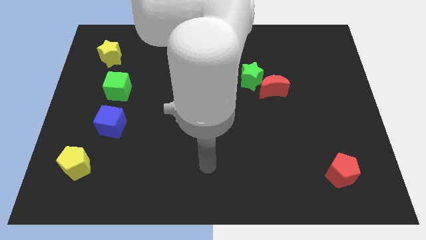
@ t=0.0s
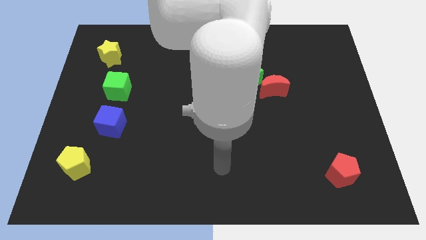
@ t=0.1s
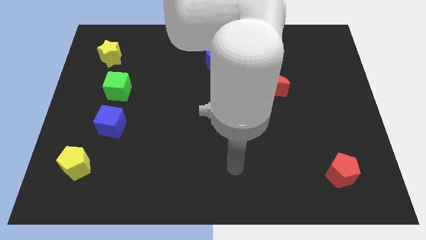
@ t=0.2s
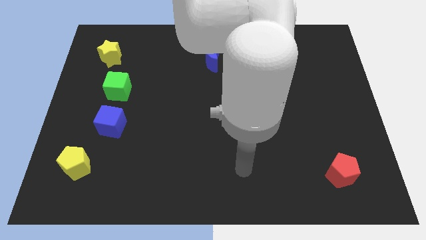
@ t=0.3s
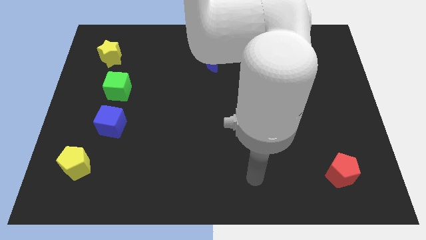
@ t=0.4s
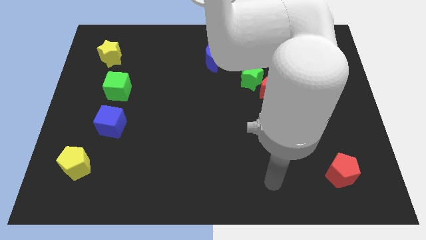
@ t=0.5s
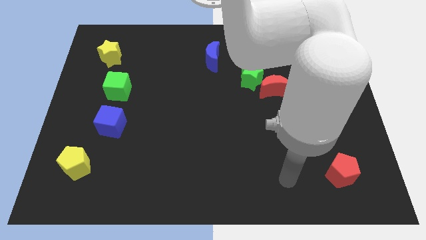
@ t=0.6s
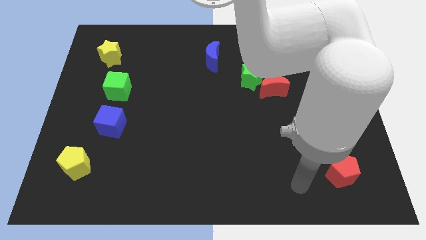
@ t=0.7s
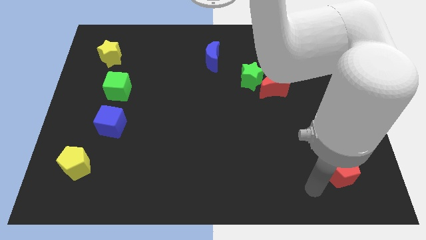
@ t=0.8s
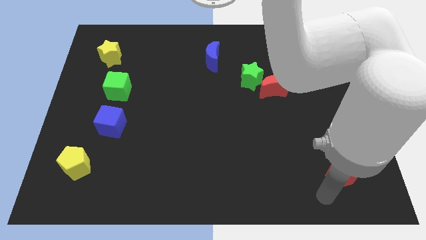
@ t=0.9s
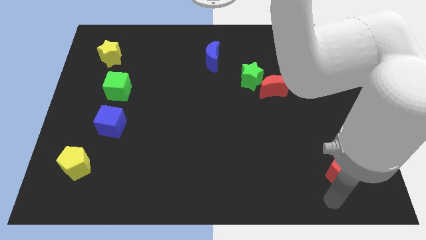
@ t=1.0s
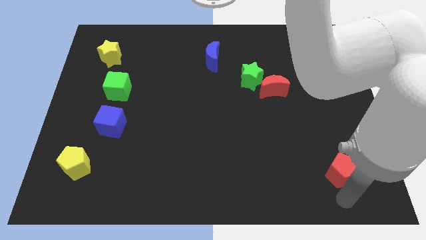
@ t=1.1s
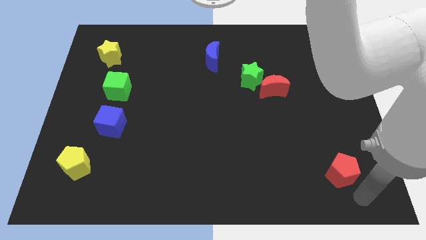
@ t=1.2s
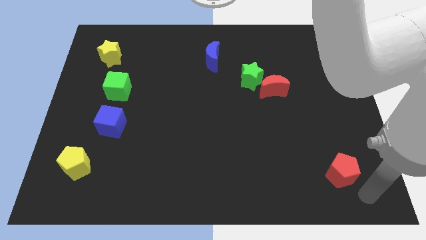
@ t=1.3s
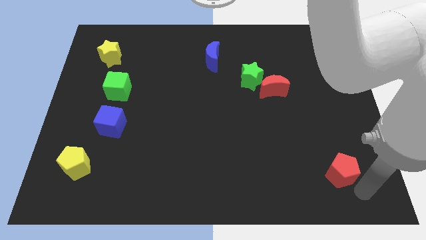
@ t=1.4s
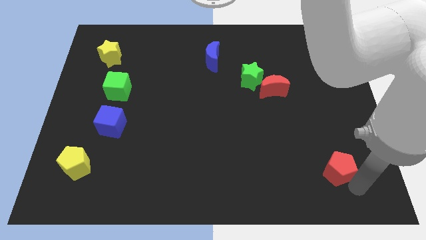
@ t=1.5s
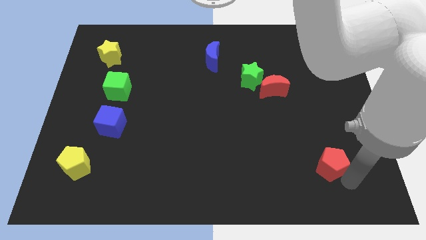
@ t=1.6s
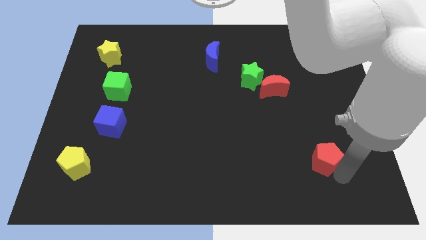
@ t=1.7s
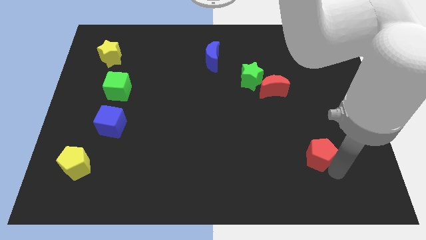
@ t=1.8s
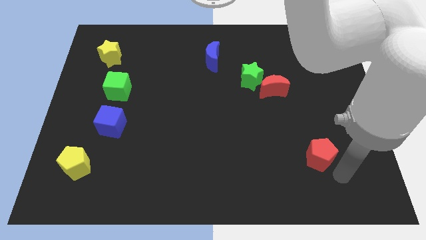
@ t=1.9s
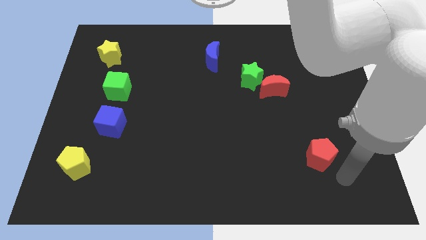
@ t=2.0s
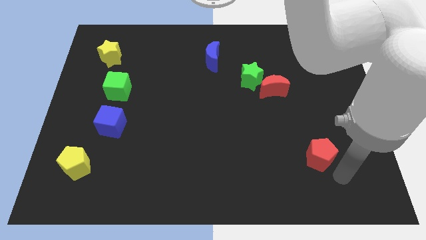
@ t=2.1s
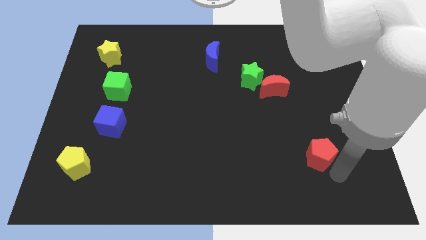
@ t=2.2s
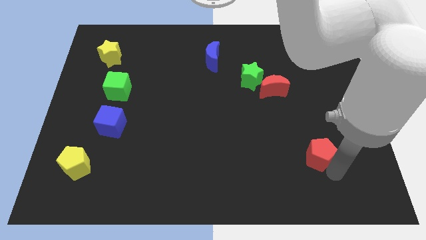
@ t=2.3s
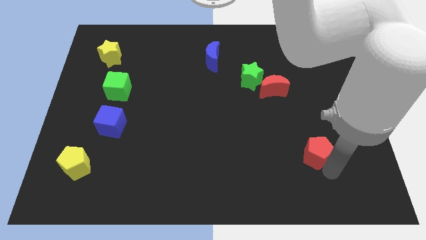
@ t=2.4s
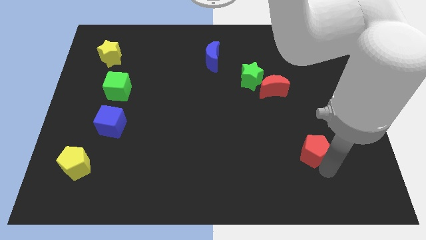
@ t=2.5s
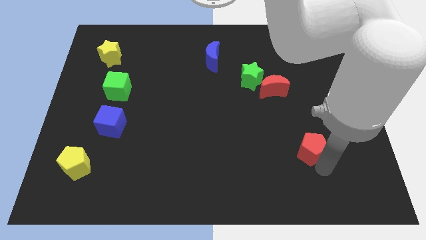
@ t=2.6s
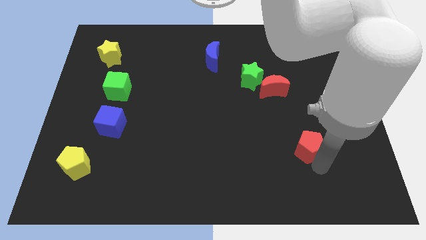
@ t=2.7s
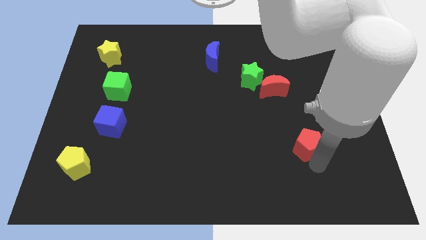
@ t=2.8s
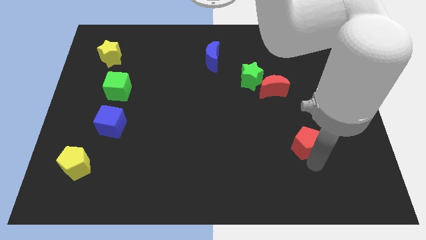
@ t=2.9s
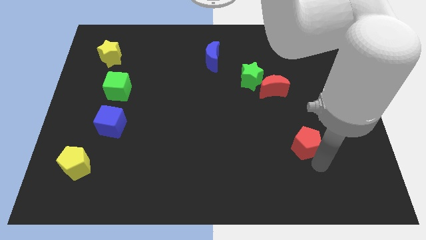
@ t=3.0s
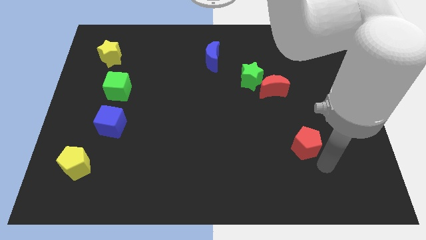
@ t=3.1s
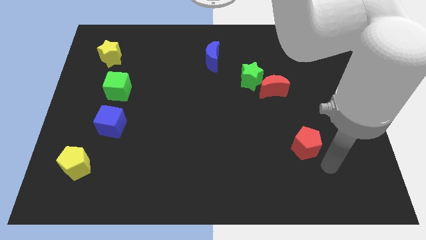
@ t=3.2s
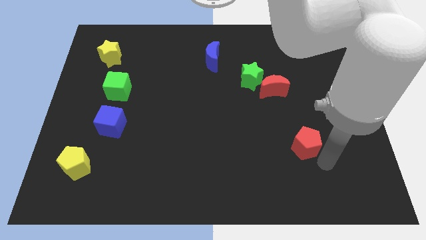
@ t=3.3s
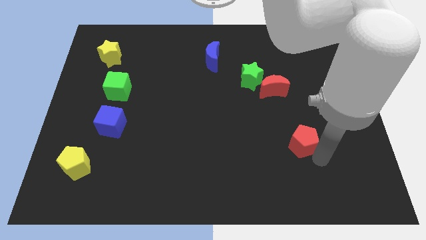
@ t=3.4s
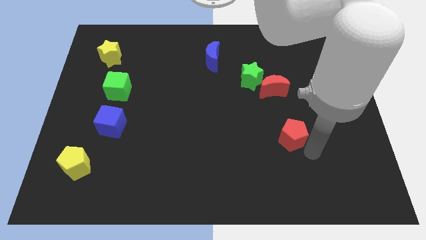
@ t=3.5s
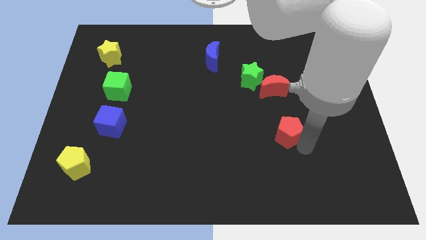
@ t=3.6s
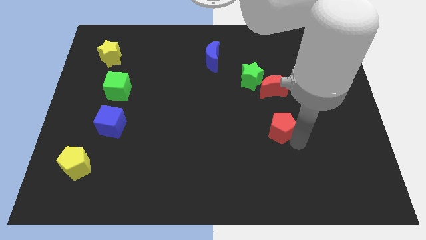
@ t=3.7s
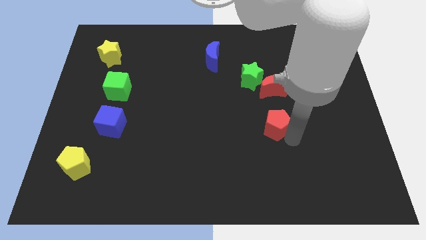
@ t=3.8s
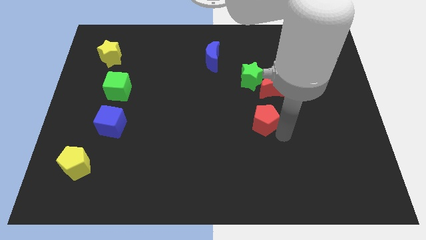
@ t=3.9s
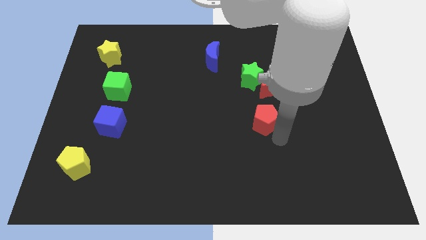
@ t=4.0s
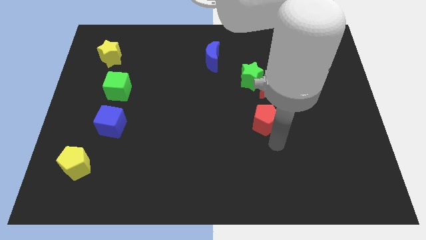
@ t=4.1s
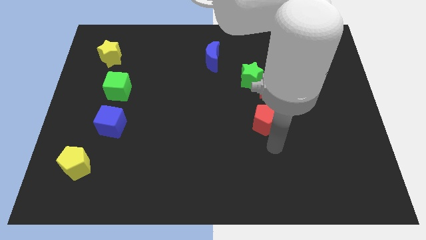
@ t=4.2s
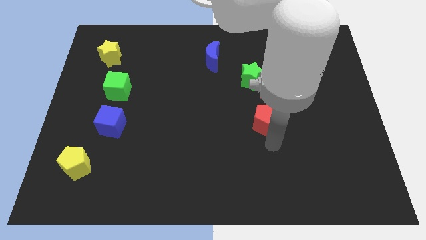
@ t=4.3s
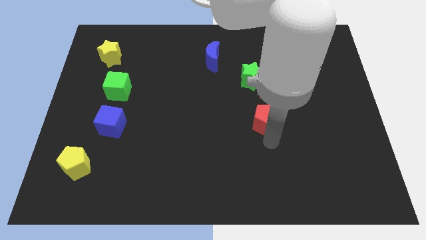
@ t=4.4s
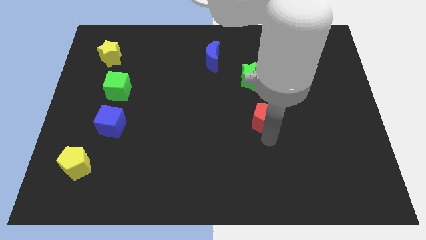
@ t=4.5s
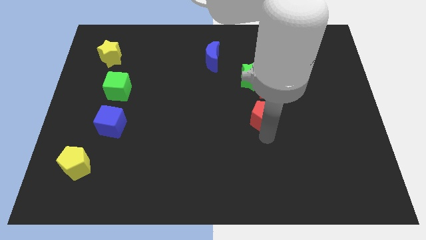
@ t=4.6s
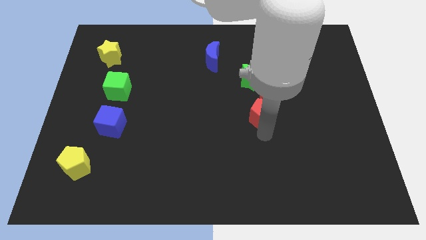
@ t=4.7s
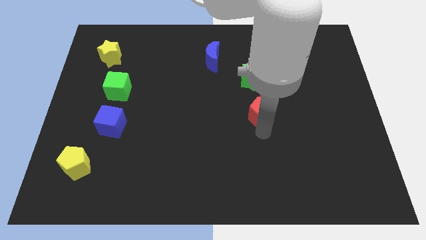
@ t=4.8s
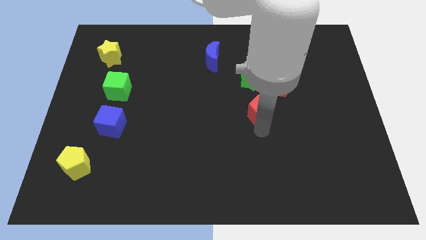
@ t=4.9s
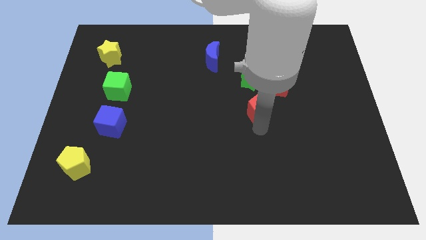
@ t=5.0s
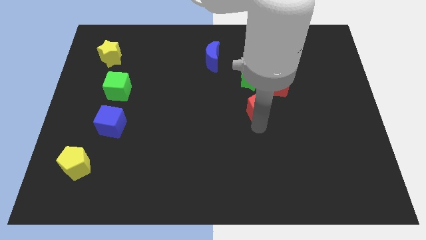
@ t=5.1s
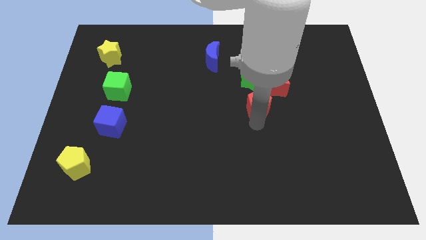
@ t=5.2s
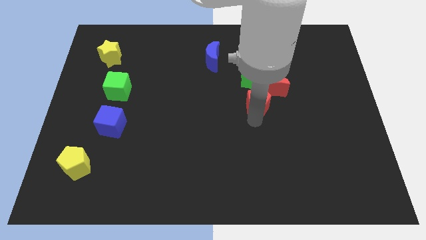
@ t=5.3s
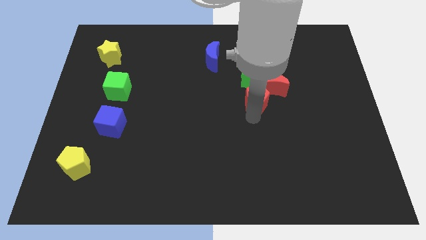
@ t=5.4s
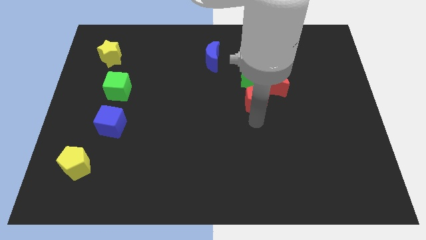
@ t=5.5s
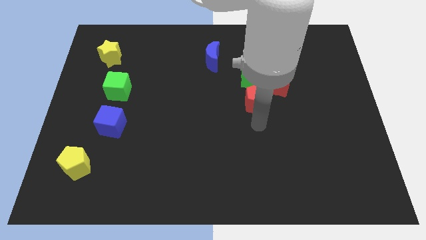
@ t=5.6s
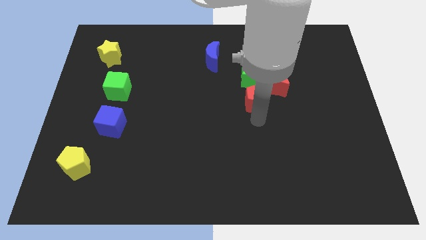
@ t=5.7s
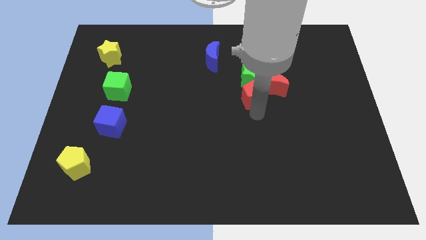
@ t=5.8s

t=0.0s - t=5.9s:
slide the red pentagon next to the green star

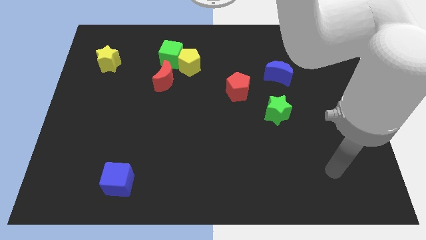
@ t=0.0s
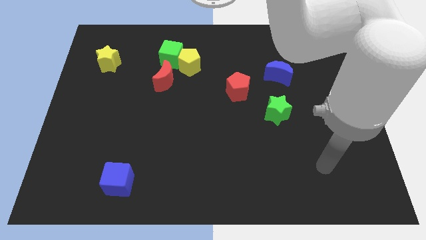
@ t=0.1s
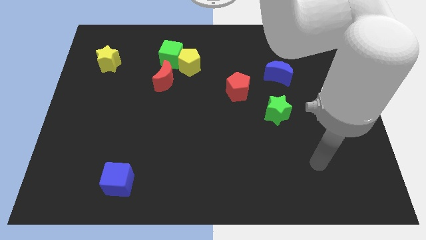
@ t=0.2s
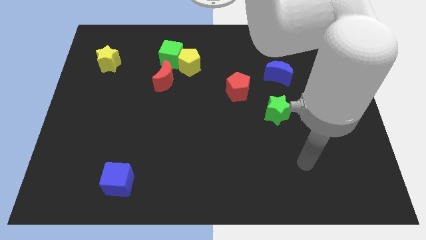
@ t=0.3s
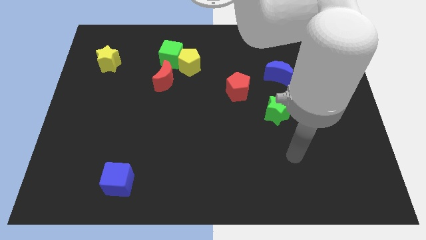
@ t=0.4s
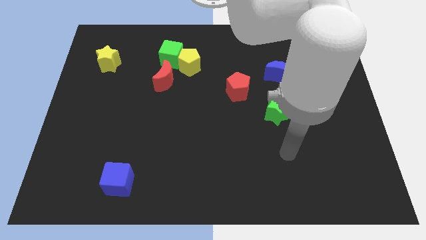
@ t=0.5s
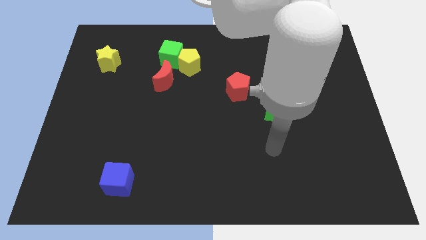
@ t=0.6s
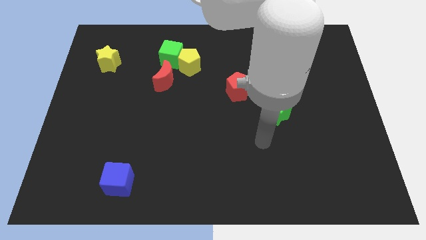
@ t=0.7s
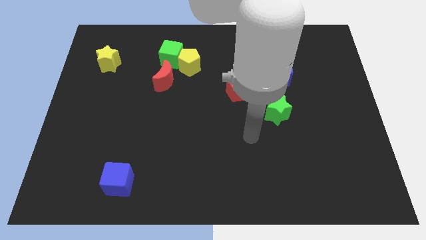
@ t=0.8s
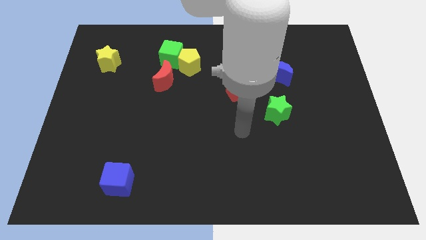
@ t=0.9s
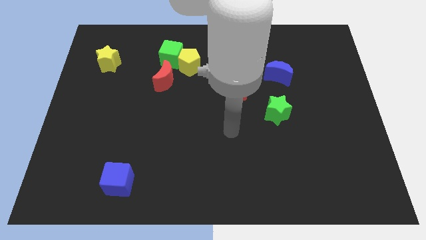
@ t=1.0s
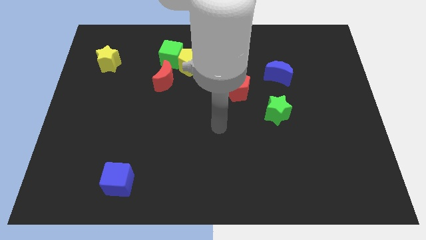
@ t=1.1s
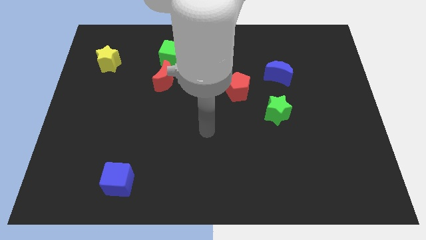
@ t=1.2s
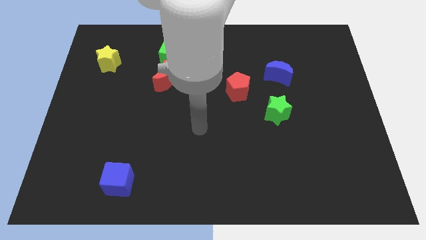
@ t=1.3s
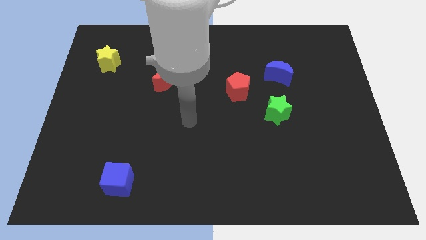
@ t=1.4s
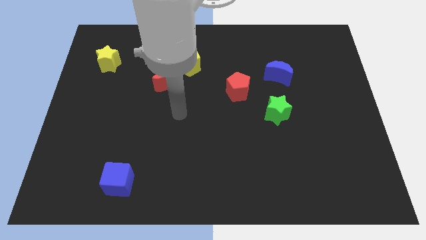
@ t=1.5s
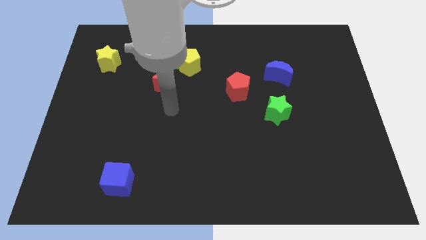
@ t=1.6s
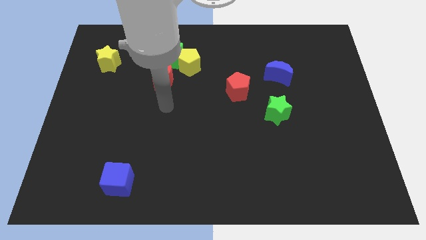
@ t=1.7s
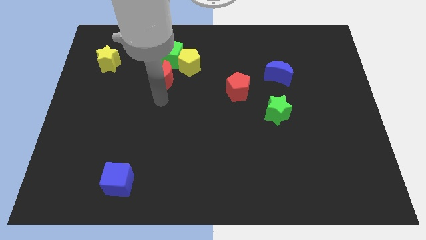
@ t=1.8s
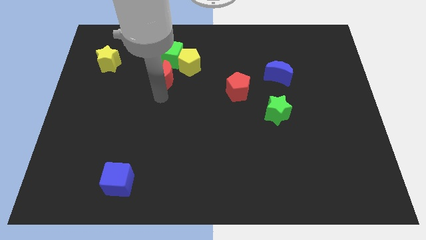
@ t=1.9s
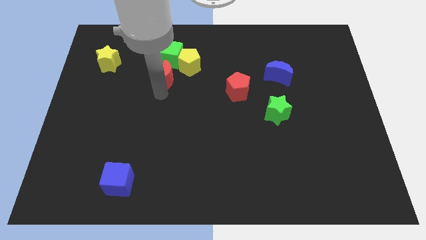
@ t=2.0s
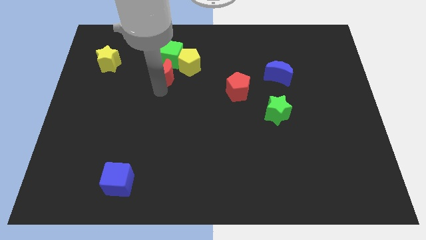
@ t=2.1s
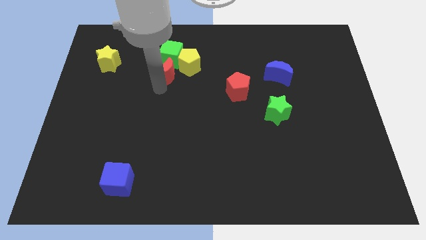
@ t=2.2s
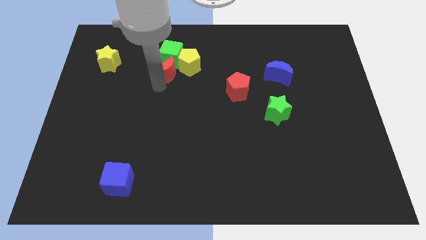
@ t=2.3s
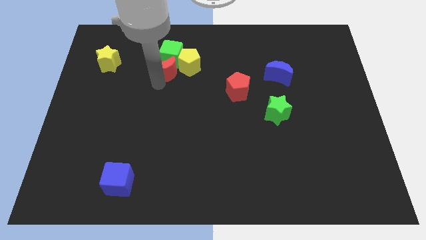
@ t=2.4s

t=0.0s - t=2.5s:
slide the red moon to the green cube
